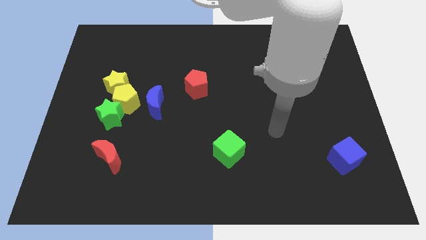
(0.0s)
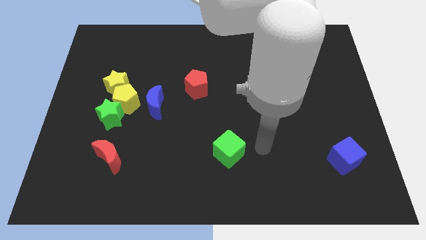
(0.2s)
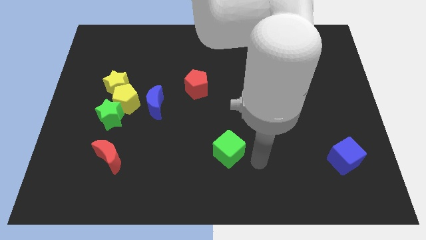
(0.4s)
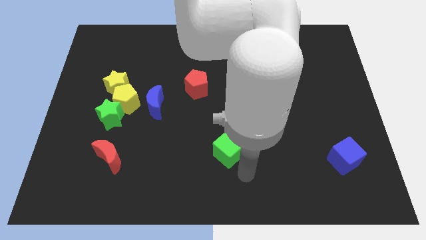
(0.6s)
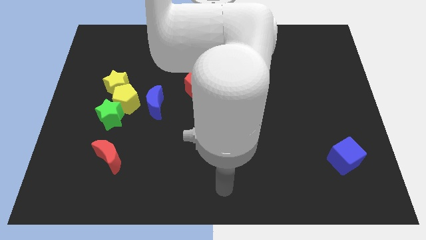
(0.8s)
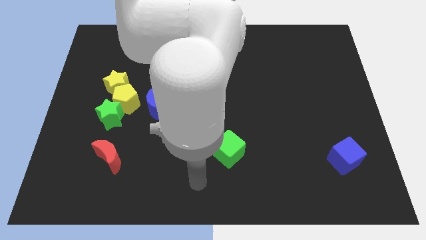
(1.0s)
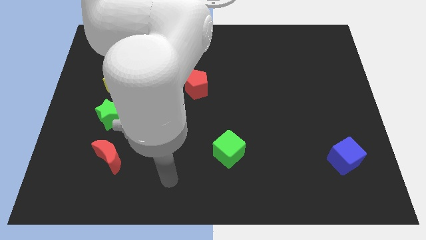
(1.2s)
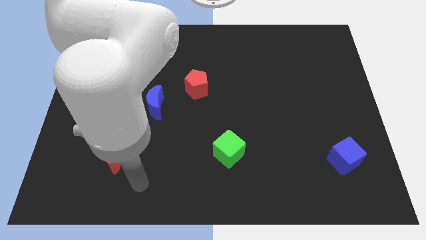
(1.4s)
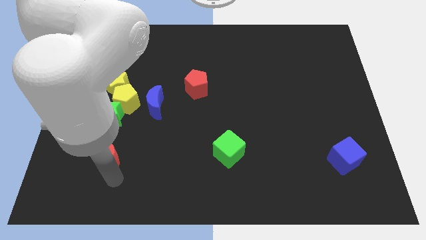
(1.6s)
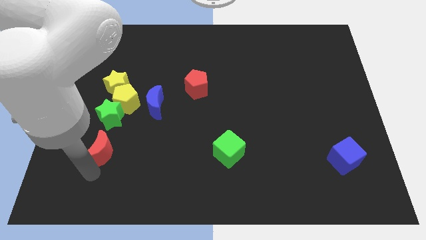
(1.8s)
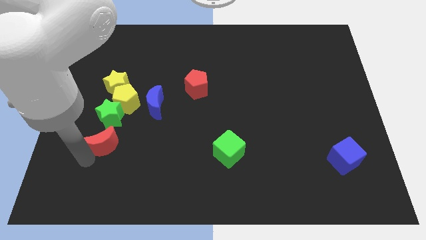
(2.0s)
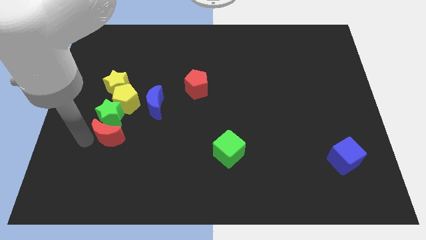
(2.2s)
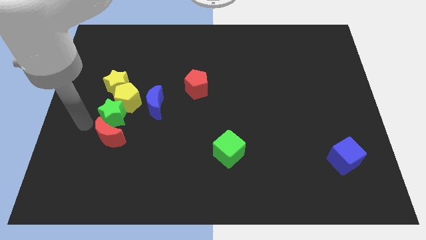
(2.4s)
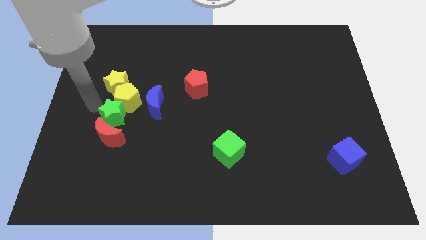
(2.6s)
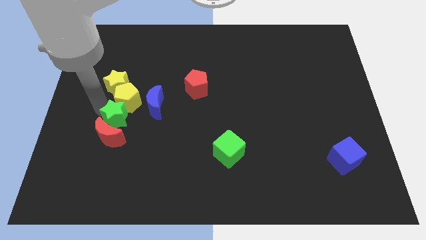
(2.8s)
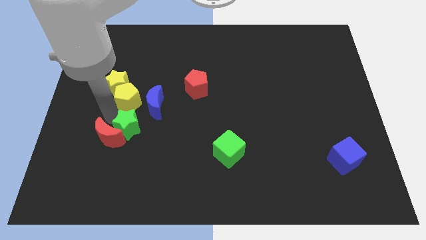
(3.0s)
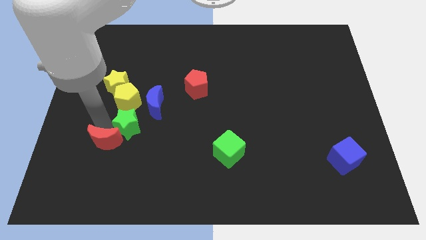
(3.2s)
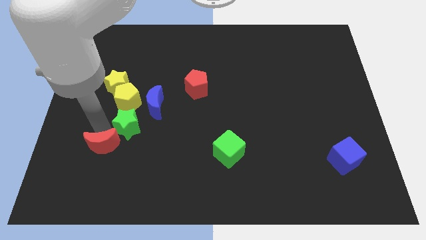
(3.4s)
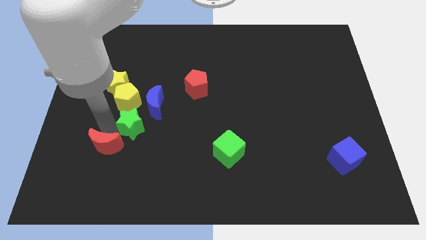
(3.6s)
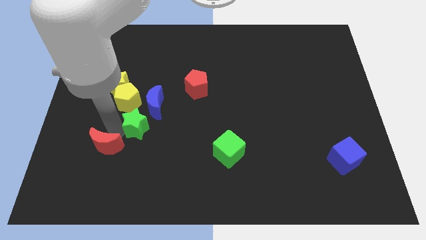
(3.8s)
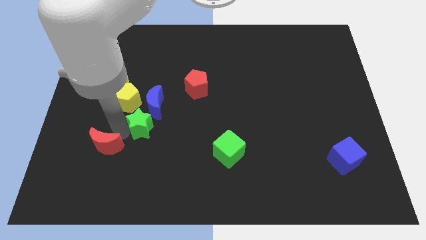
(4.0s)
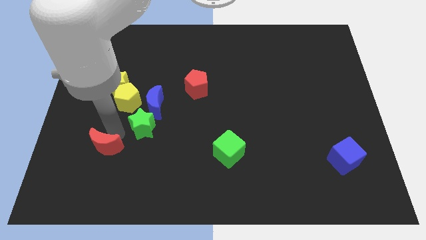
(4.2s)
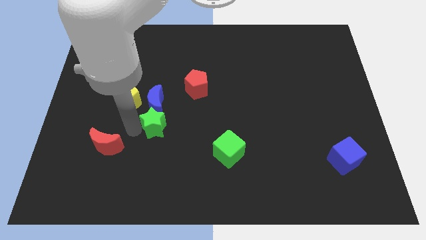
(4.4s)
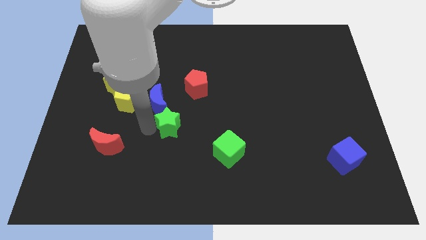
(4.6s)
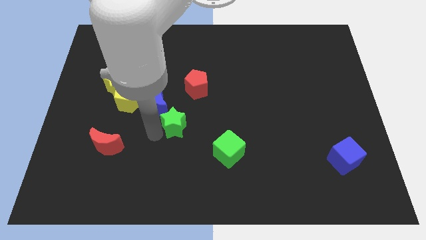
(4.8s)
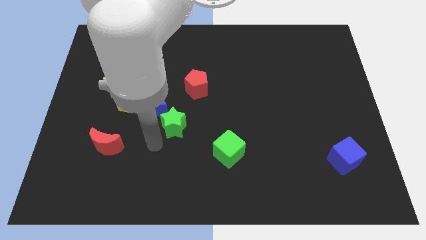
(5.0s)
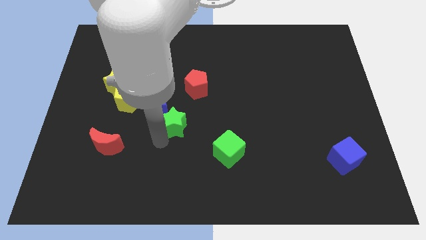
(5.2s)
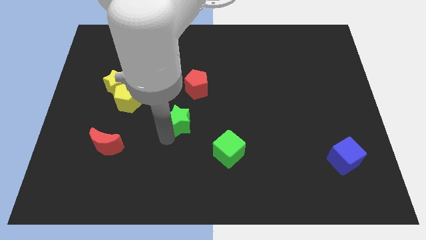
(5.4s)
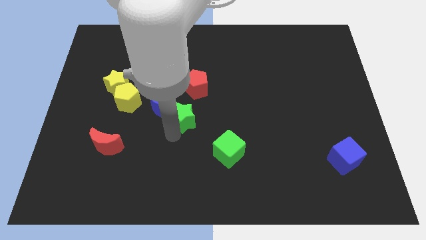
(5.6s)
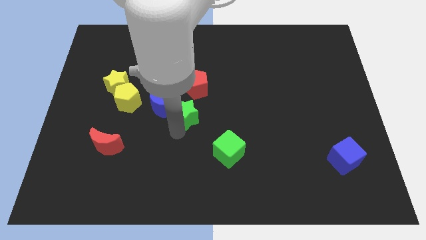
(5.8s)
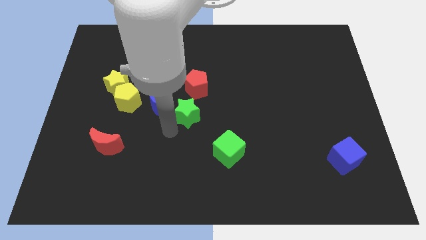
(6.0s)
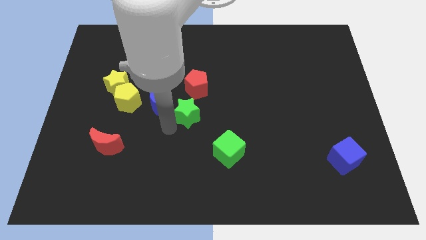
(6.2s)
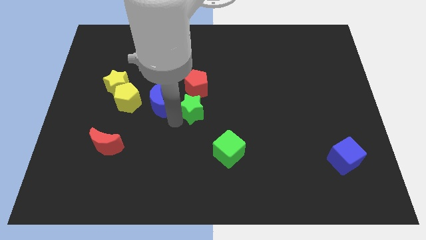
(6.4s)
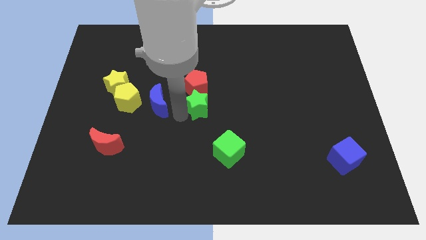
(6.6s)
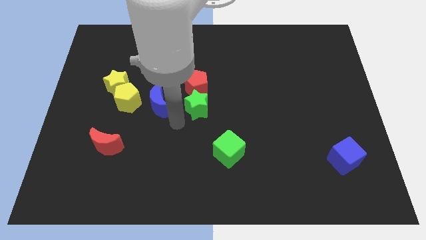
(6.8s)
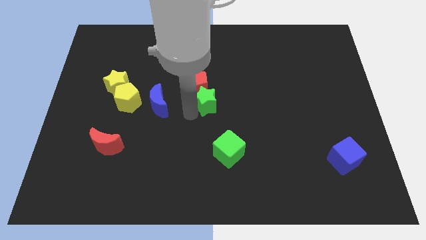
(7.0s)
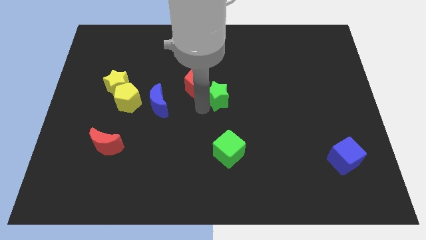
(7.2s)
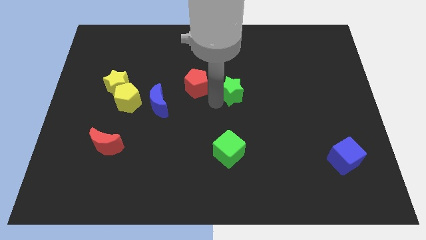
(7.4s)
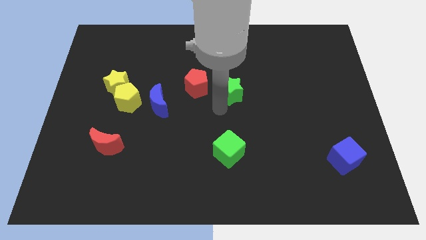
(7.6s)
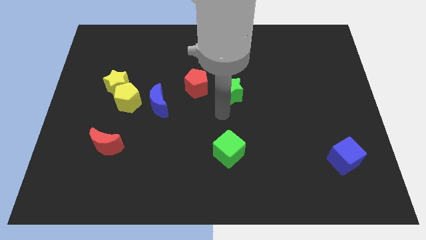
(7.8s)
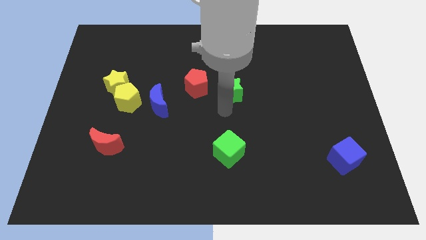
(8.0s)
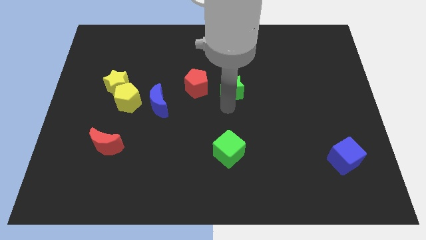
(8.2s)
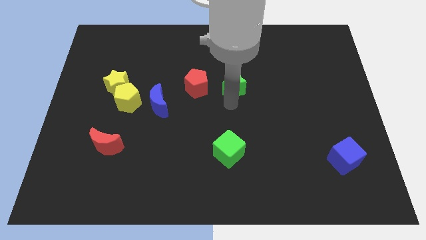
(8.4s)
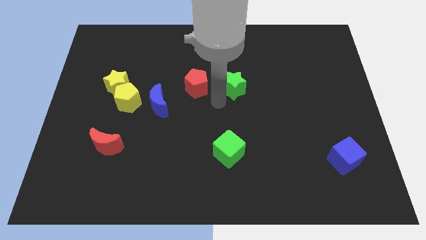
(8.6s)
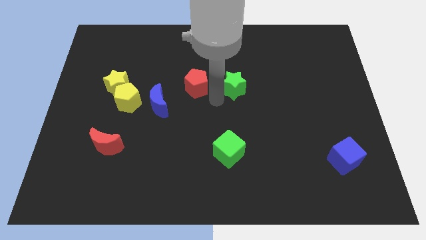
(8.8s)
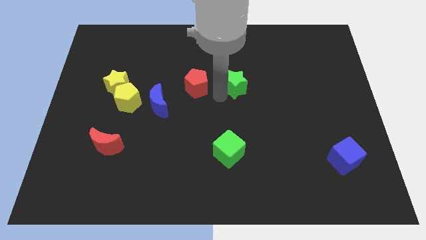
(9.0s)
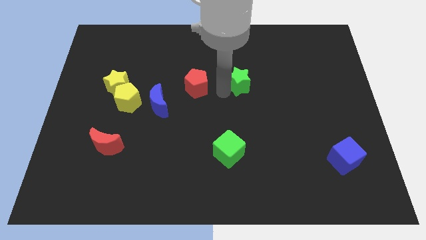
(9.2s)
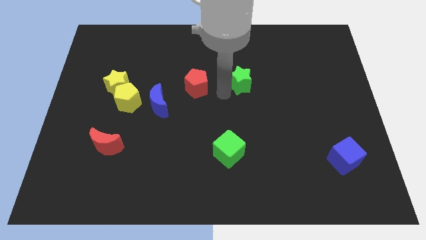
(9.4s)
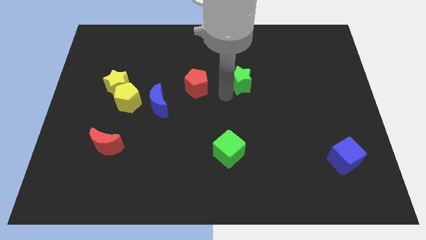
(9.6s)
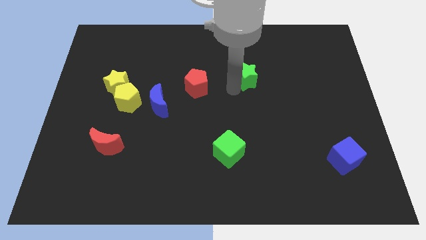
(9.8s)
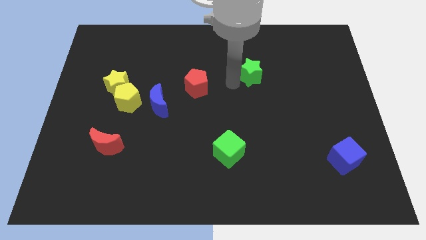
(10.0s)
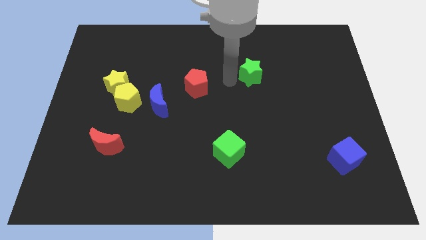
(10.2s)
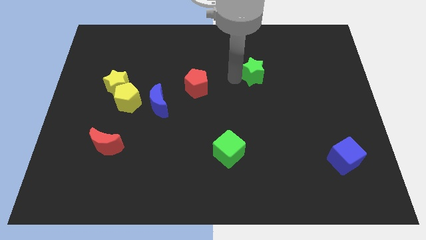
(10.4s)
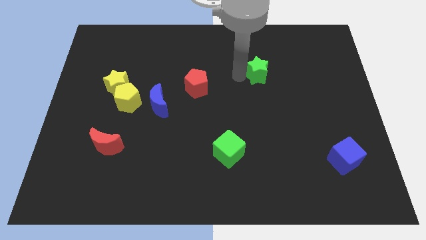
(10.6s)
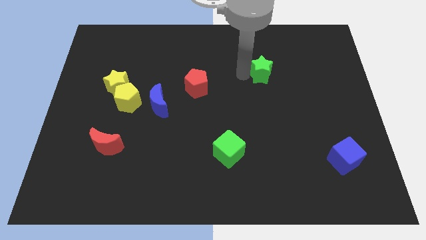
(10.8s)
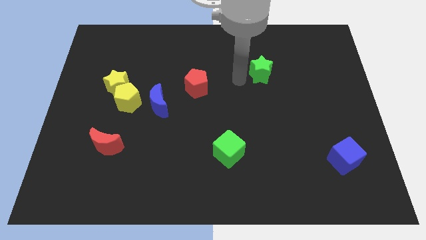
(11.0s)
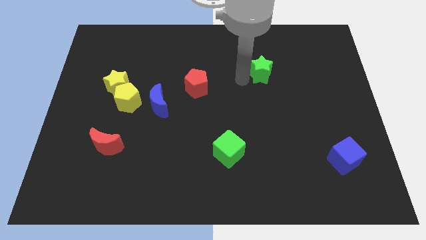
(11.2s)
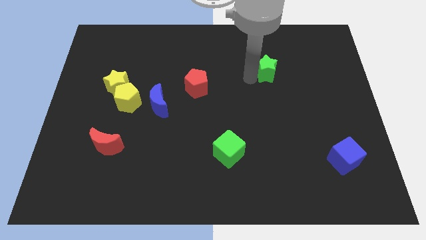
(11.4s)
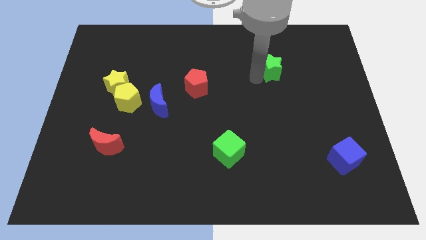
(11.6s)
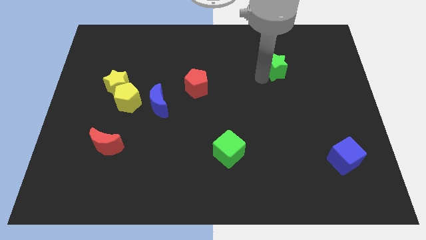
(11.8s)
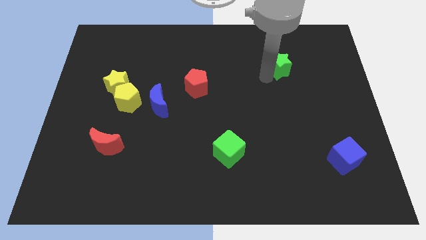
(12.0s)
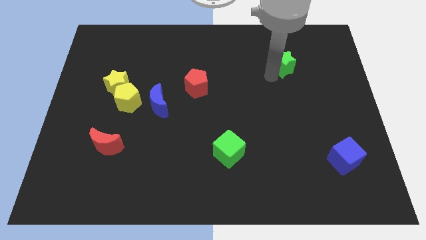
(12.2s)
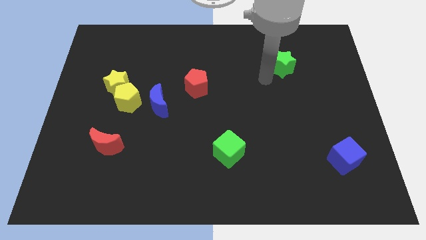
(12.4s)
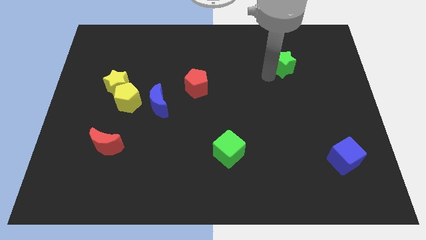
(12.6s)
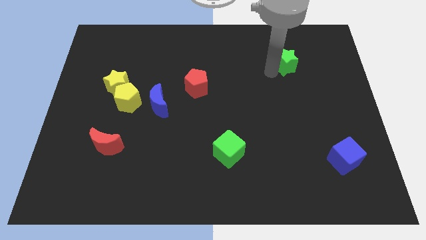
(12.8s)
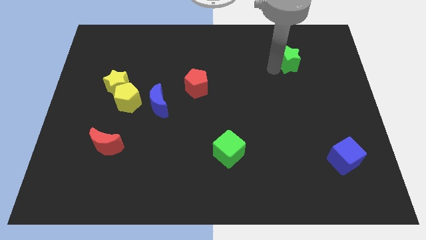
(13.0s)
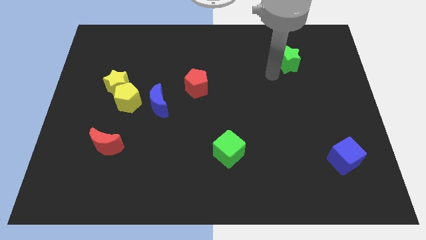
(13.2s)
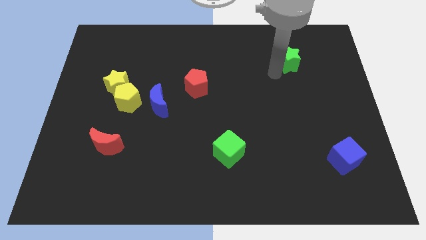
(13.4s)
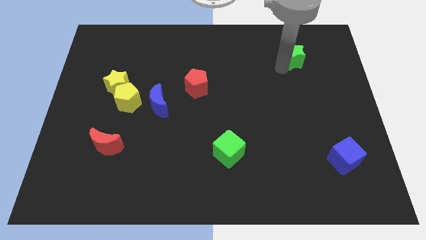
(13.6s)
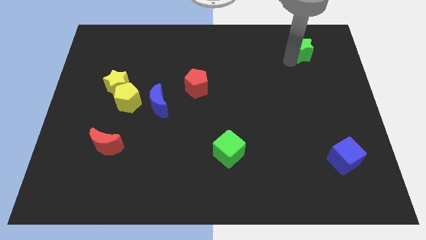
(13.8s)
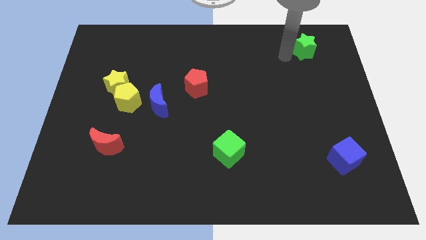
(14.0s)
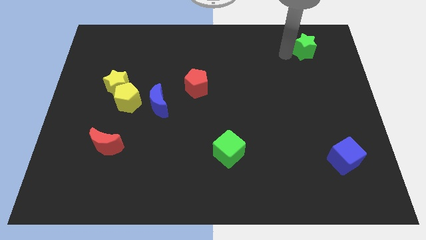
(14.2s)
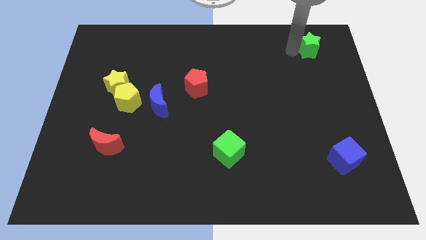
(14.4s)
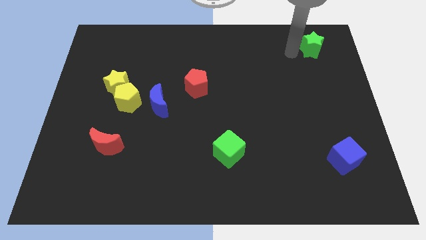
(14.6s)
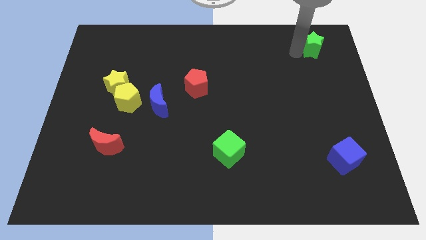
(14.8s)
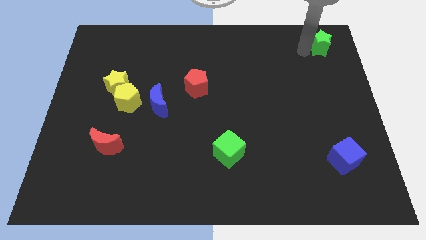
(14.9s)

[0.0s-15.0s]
move the green star to the top right of the board
